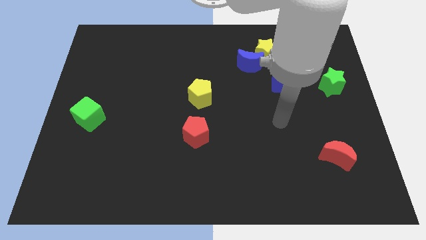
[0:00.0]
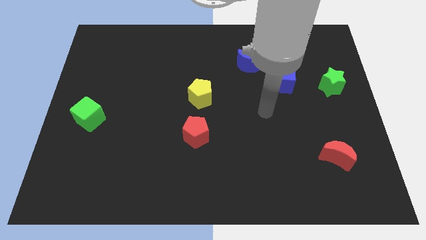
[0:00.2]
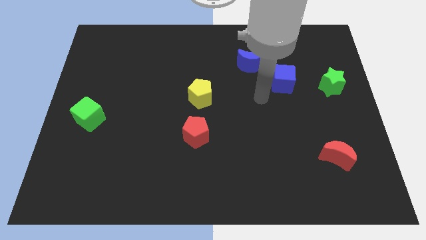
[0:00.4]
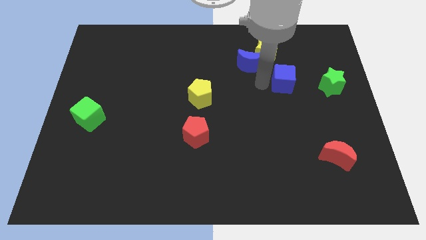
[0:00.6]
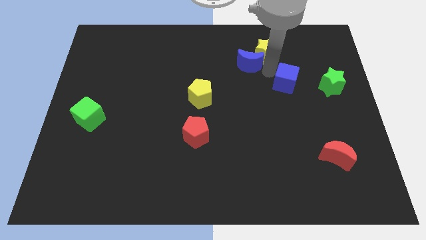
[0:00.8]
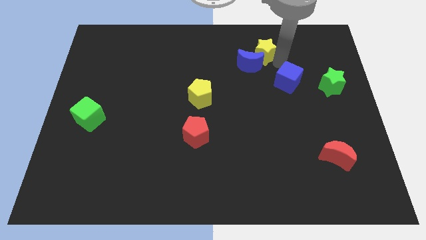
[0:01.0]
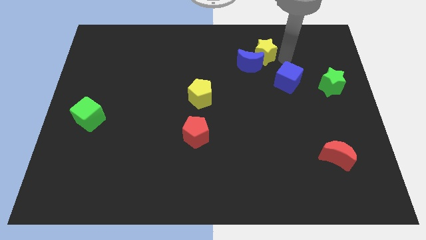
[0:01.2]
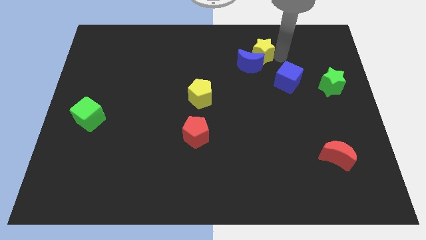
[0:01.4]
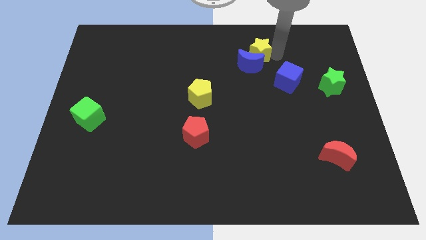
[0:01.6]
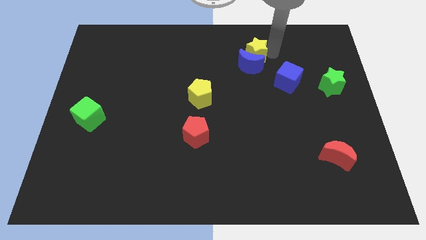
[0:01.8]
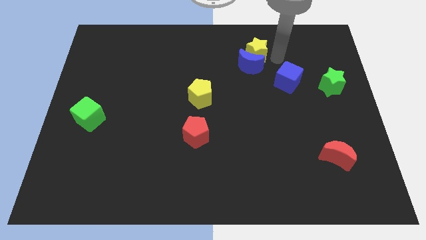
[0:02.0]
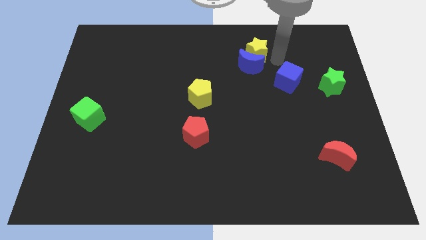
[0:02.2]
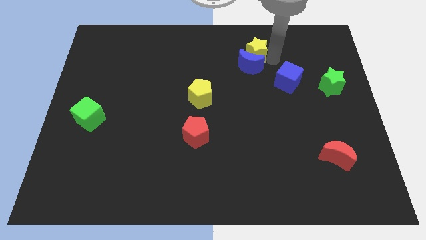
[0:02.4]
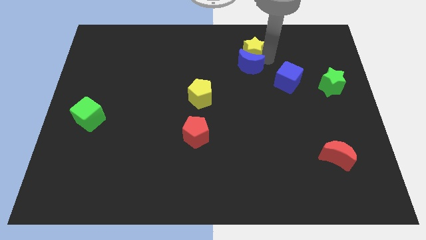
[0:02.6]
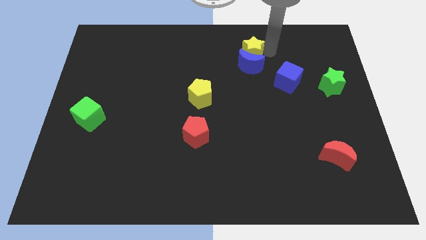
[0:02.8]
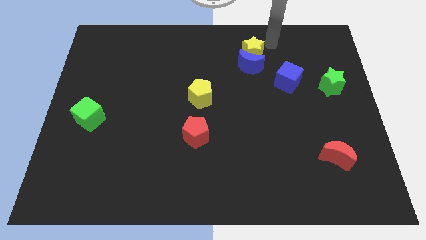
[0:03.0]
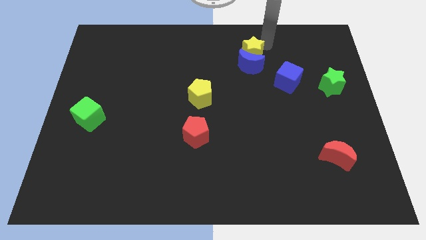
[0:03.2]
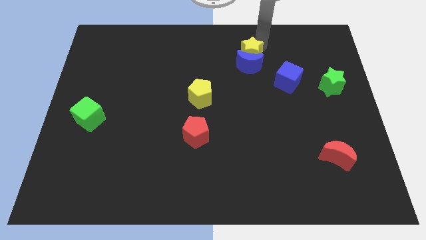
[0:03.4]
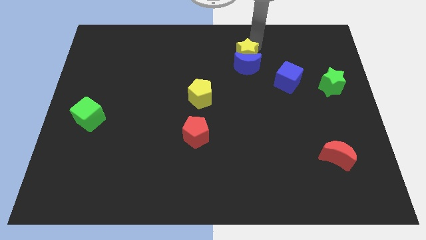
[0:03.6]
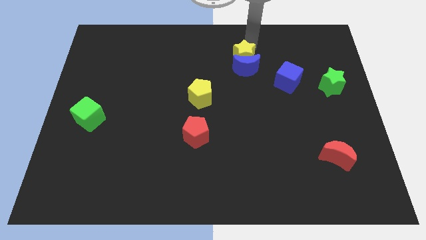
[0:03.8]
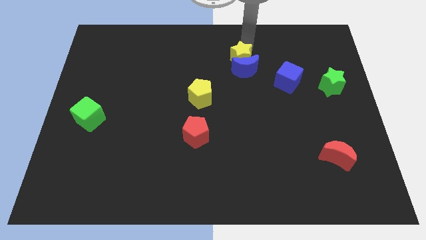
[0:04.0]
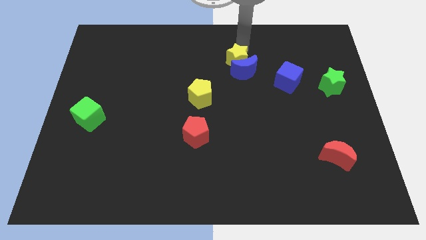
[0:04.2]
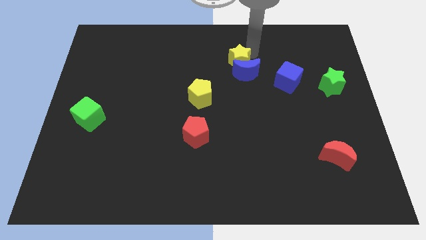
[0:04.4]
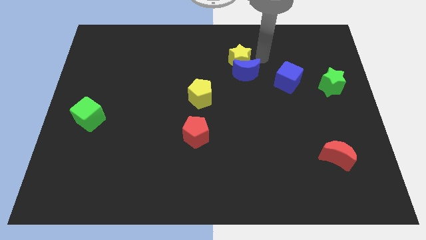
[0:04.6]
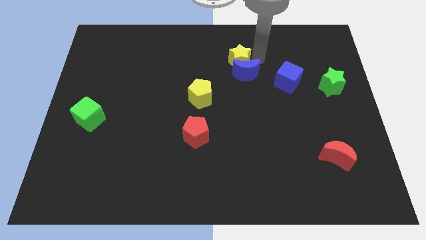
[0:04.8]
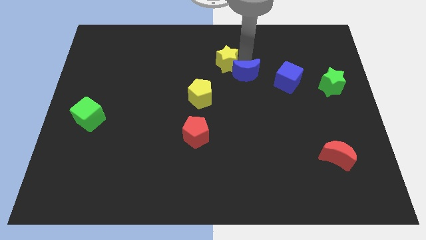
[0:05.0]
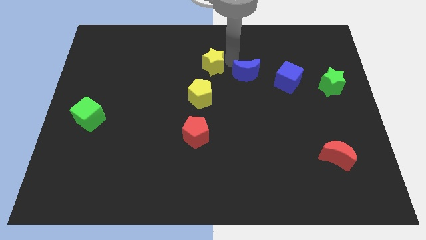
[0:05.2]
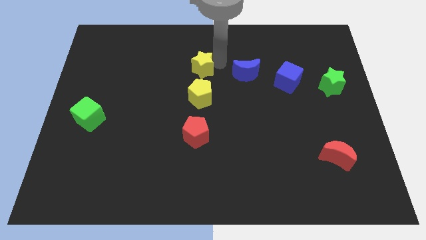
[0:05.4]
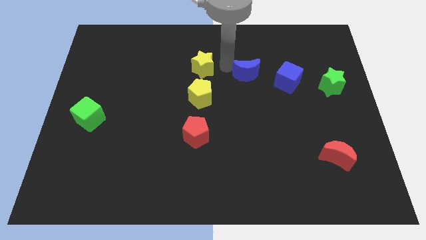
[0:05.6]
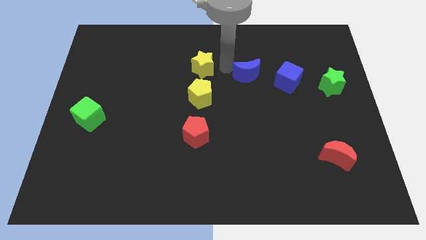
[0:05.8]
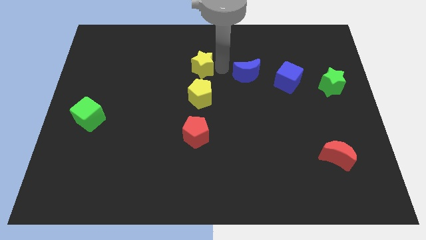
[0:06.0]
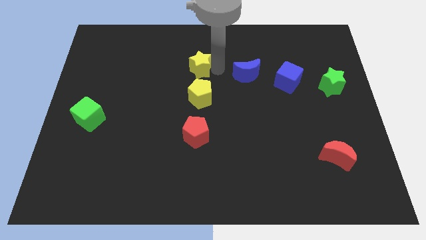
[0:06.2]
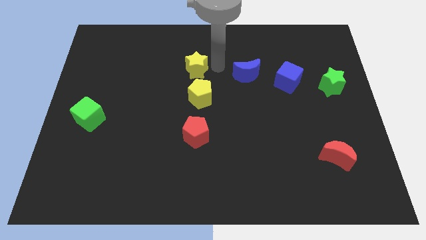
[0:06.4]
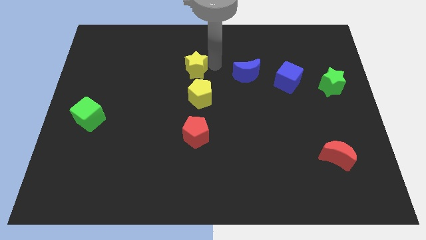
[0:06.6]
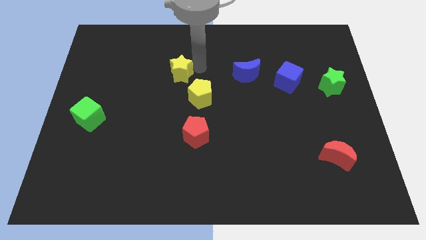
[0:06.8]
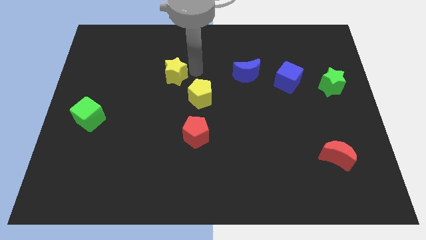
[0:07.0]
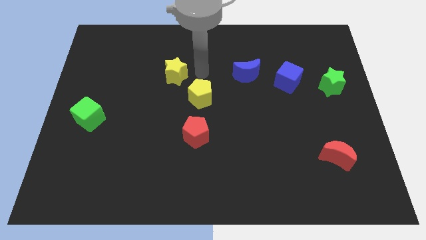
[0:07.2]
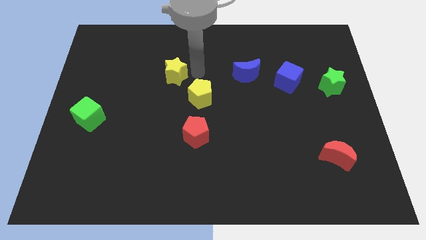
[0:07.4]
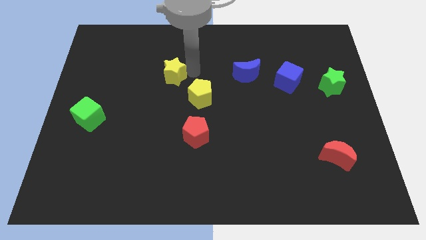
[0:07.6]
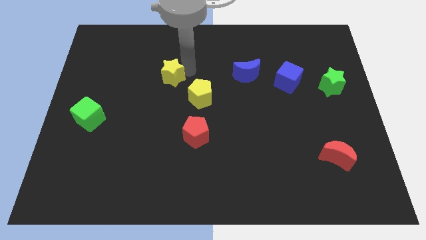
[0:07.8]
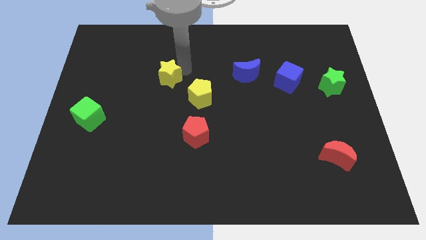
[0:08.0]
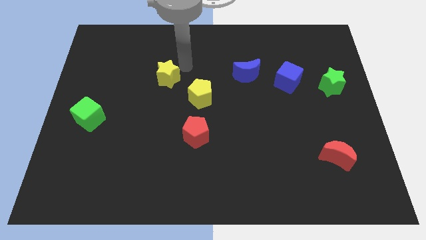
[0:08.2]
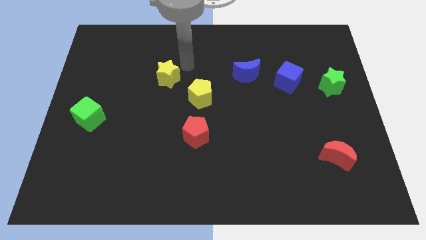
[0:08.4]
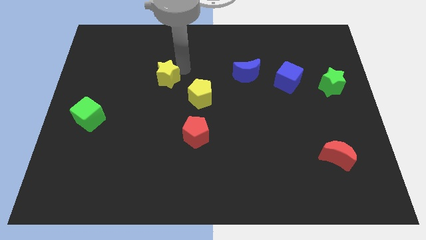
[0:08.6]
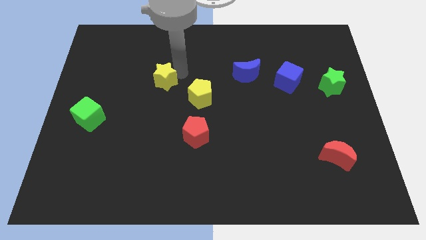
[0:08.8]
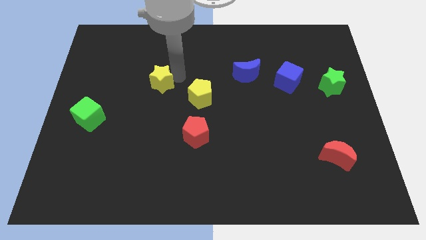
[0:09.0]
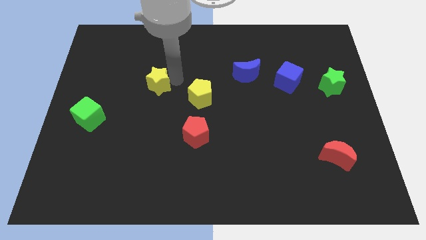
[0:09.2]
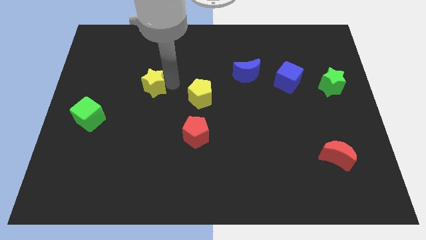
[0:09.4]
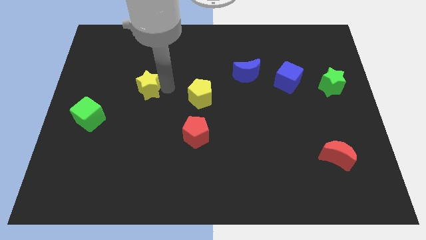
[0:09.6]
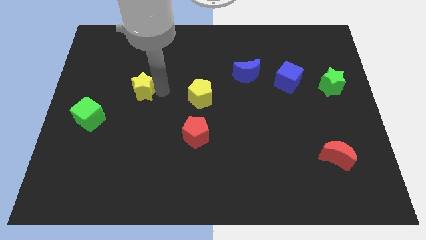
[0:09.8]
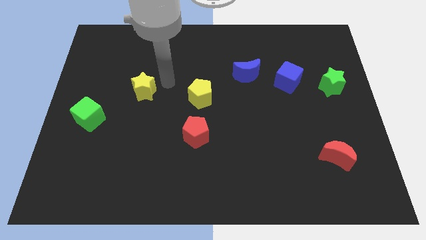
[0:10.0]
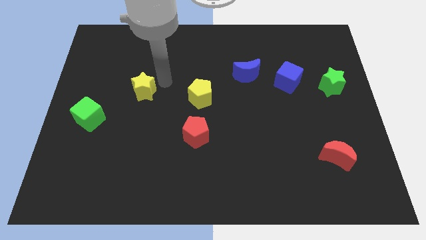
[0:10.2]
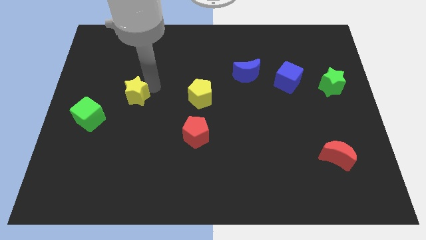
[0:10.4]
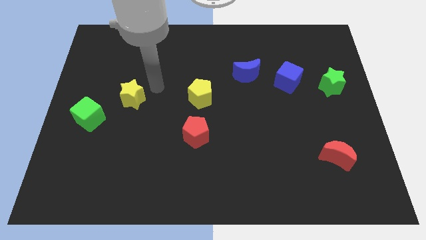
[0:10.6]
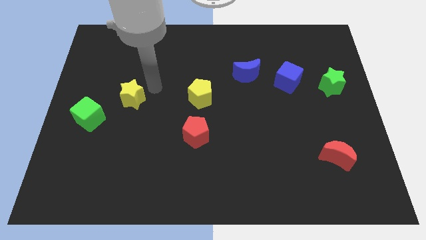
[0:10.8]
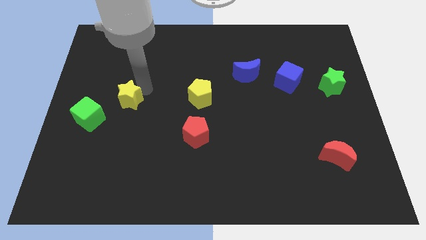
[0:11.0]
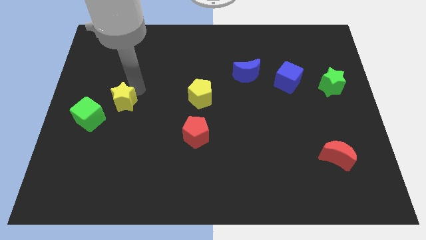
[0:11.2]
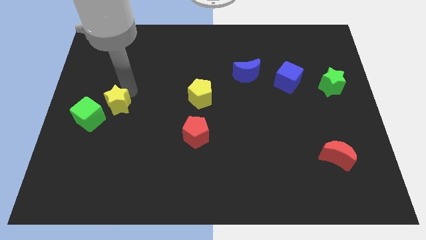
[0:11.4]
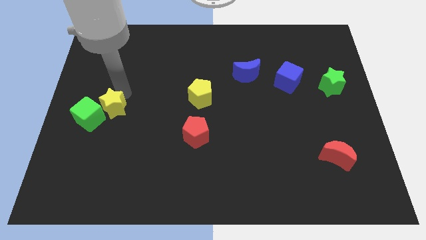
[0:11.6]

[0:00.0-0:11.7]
put the yellow star next to the green cube

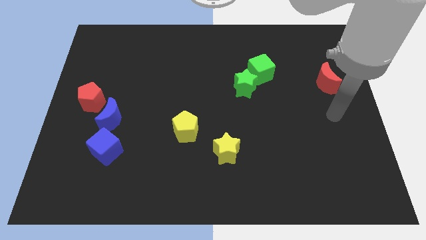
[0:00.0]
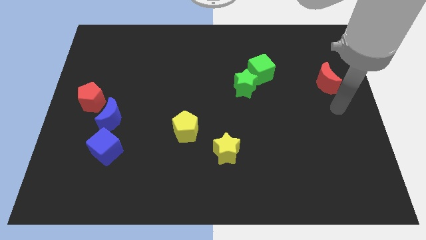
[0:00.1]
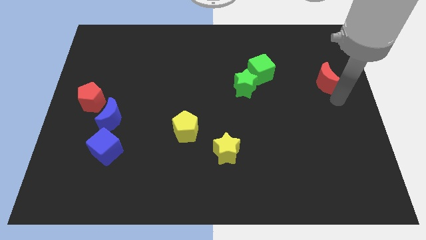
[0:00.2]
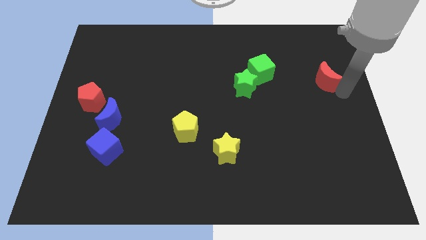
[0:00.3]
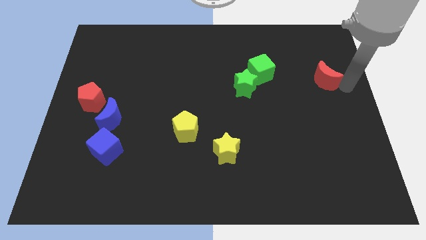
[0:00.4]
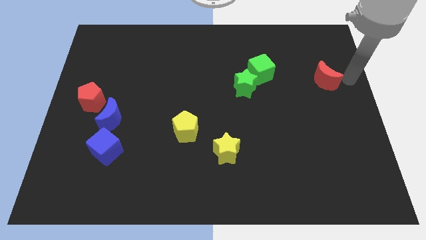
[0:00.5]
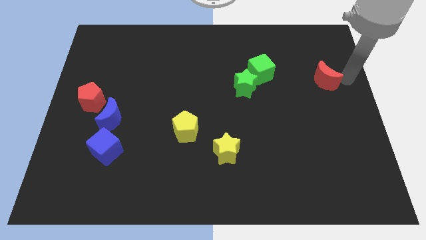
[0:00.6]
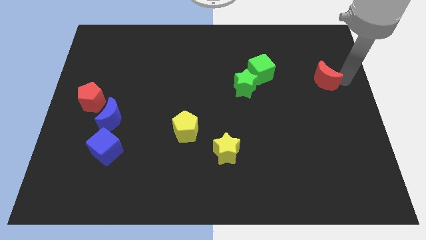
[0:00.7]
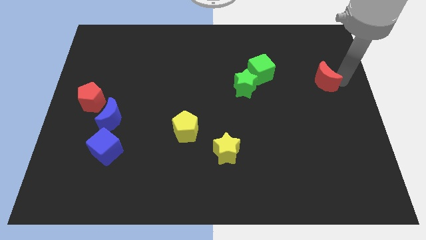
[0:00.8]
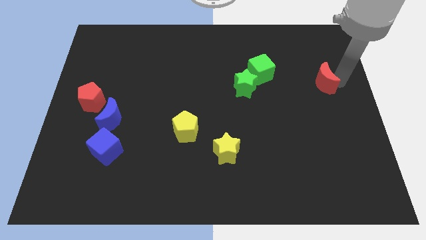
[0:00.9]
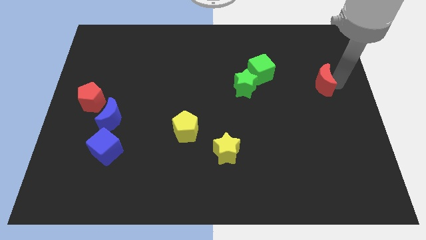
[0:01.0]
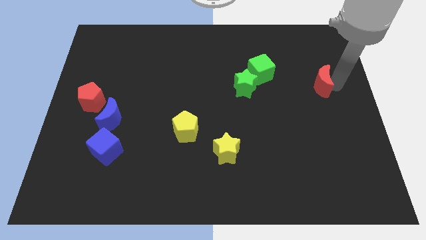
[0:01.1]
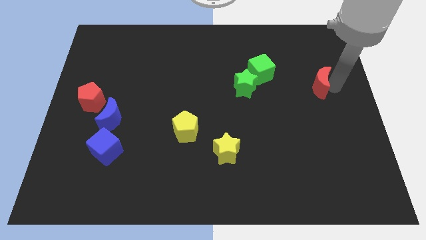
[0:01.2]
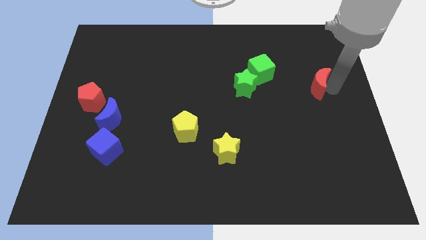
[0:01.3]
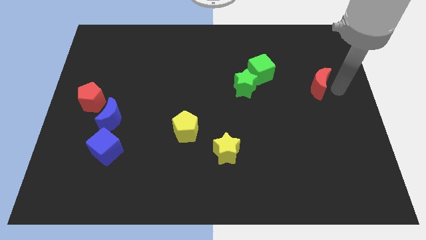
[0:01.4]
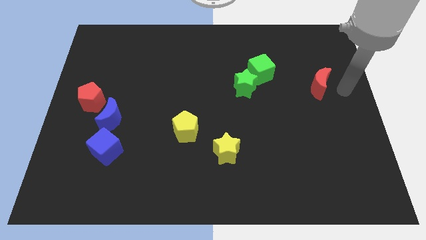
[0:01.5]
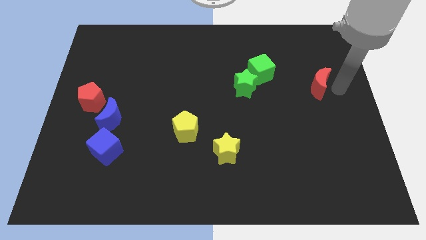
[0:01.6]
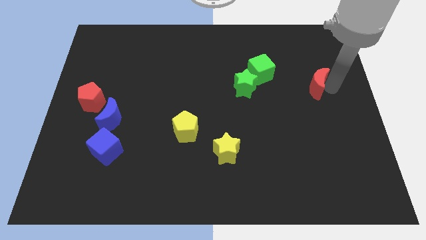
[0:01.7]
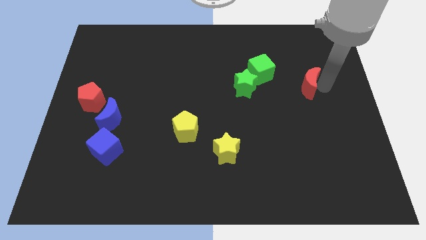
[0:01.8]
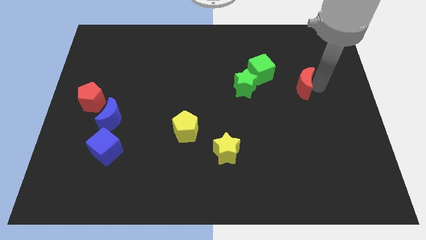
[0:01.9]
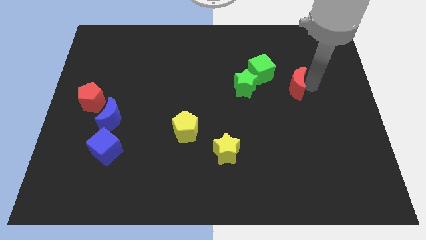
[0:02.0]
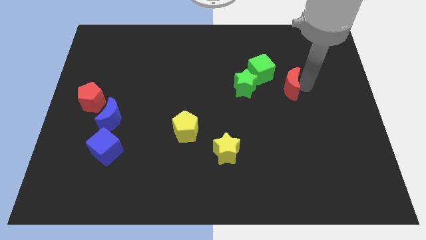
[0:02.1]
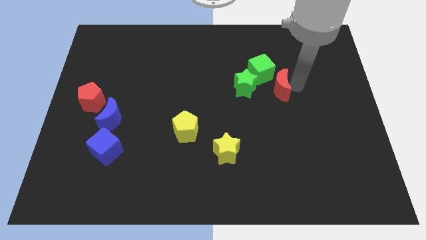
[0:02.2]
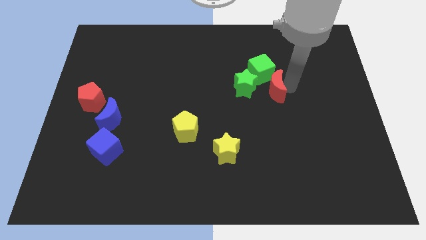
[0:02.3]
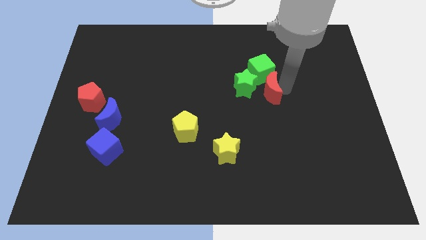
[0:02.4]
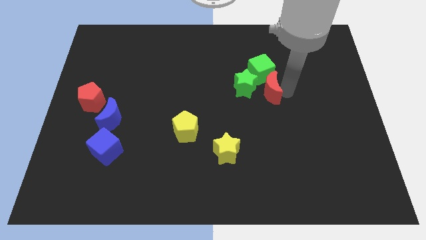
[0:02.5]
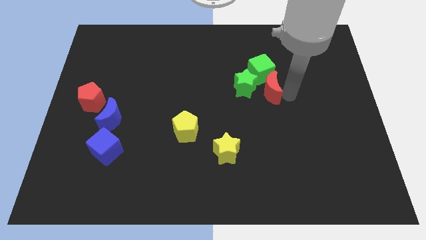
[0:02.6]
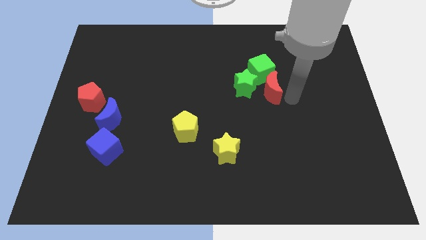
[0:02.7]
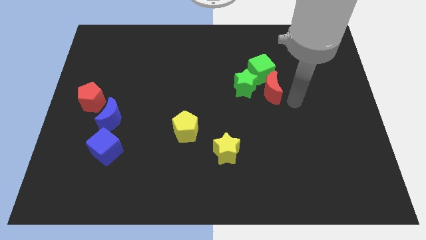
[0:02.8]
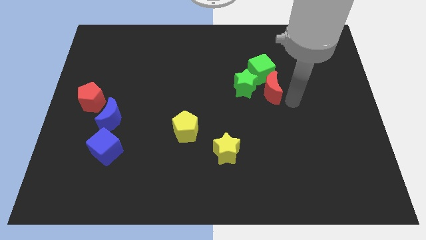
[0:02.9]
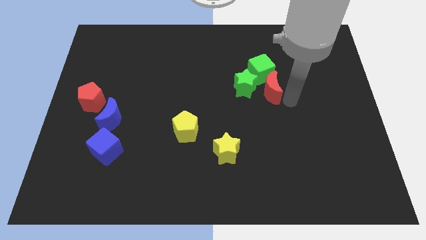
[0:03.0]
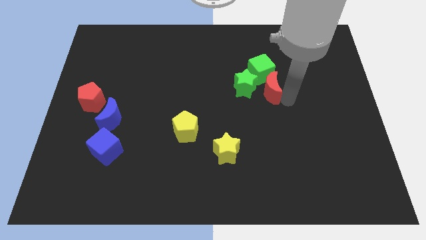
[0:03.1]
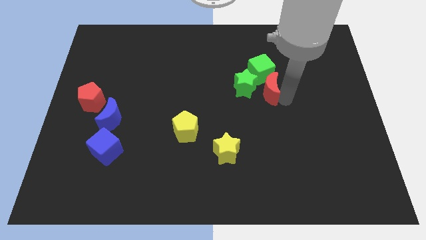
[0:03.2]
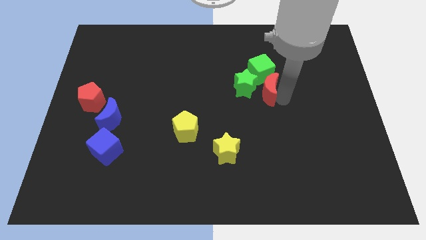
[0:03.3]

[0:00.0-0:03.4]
put the red moon close to the green star
